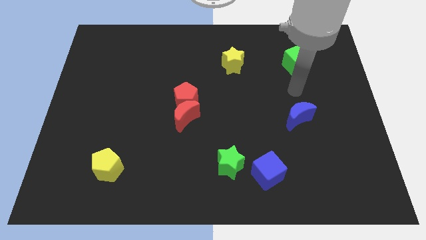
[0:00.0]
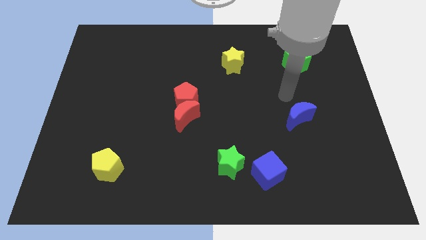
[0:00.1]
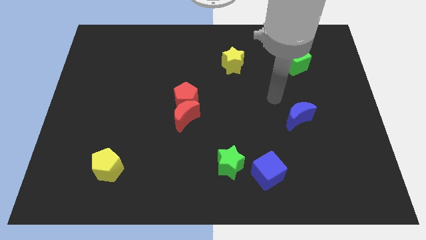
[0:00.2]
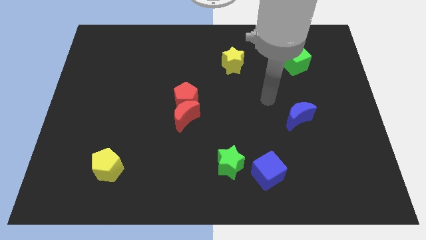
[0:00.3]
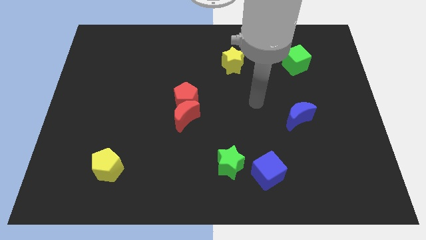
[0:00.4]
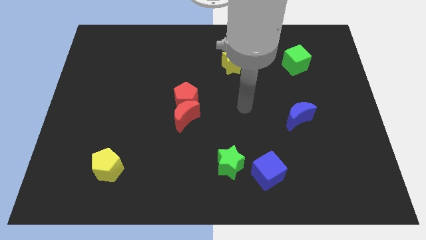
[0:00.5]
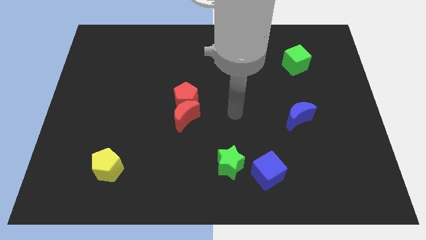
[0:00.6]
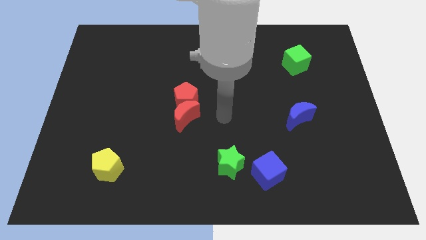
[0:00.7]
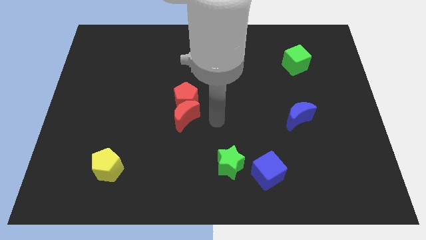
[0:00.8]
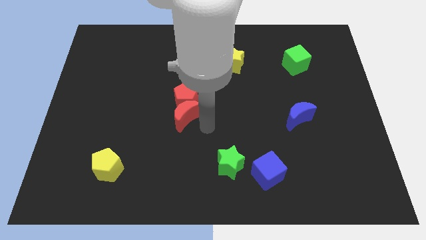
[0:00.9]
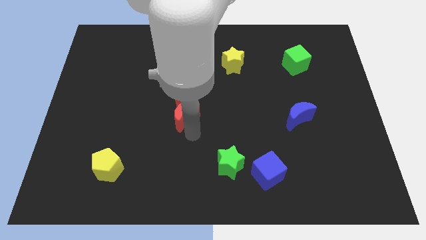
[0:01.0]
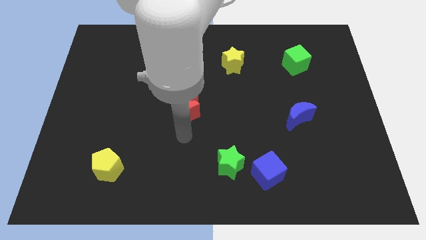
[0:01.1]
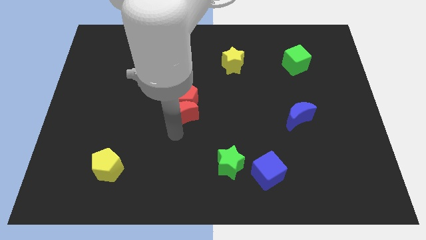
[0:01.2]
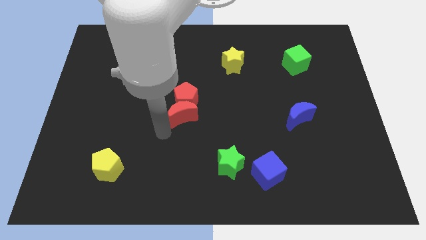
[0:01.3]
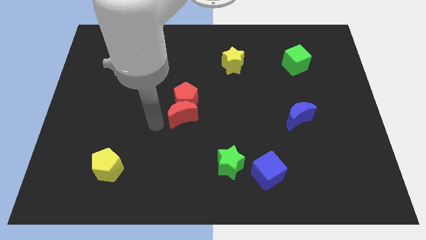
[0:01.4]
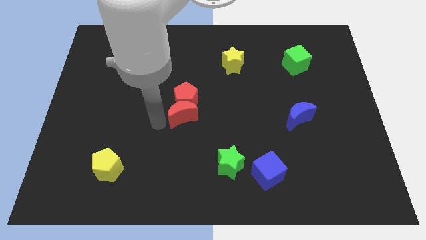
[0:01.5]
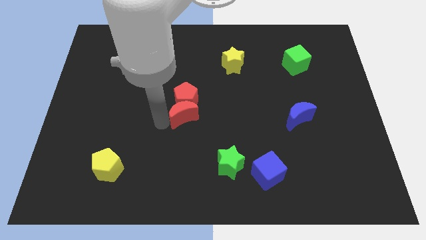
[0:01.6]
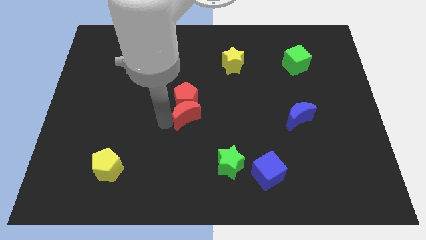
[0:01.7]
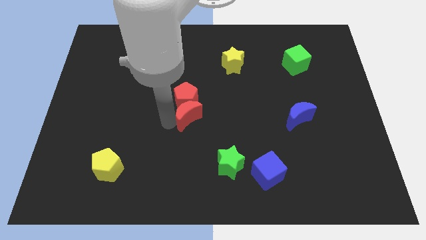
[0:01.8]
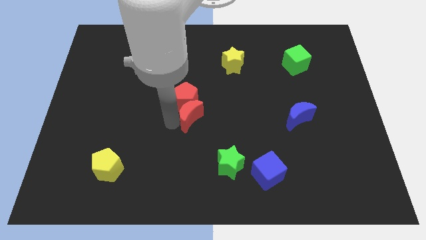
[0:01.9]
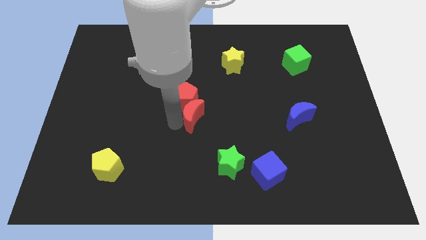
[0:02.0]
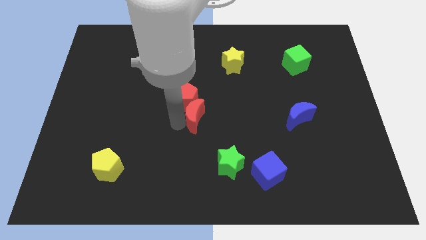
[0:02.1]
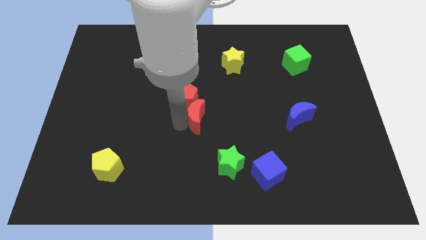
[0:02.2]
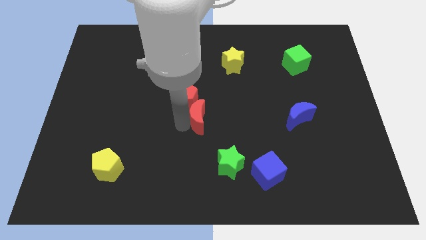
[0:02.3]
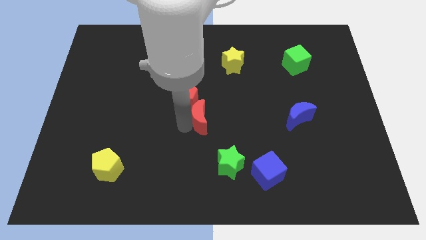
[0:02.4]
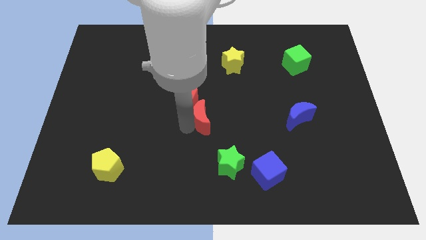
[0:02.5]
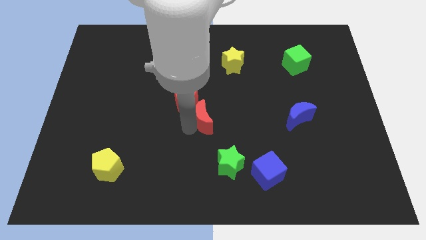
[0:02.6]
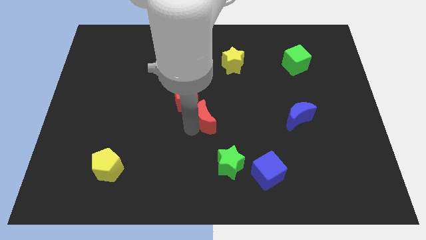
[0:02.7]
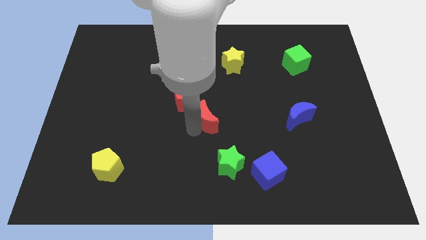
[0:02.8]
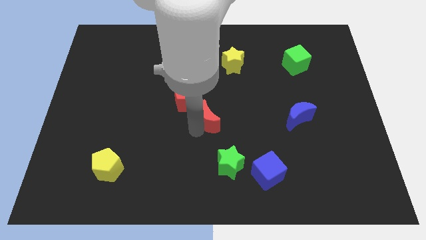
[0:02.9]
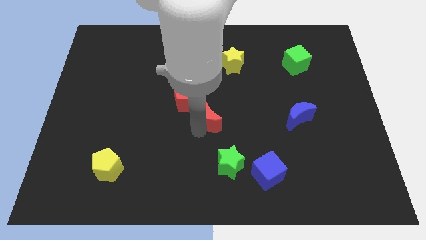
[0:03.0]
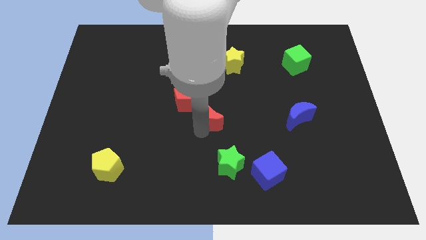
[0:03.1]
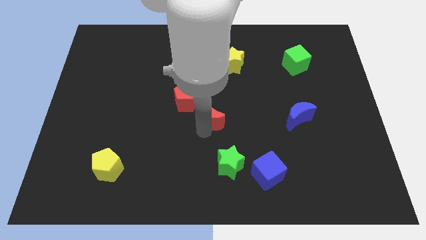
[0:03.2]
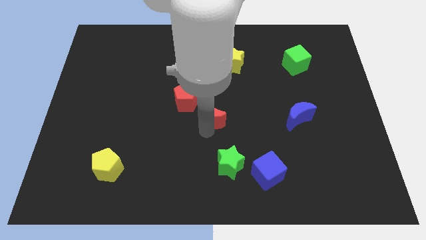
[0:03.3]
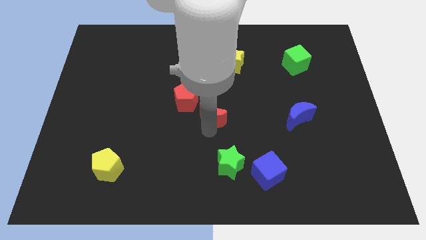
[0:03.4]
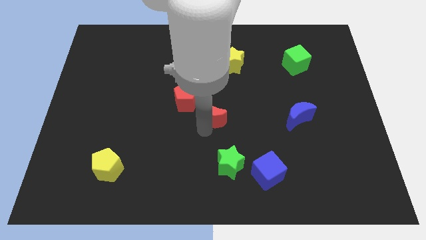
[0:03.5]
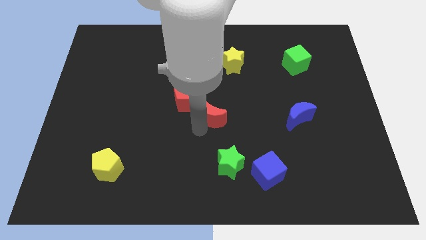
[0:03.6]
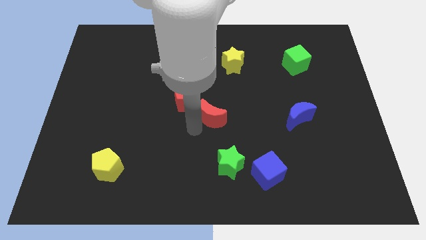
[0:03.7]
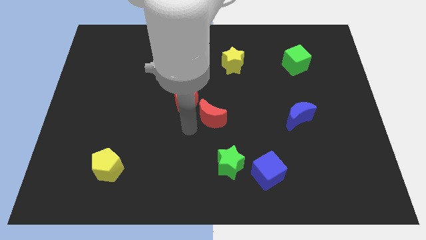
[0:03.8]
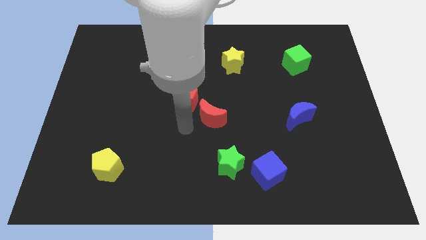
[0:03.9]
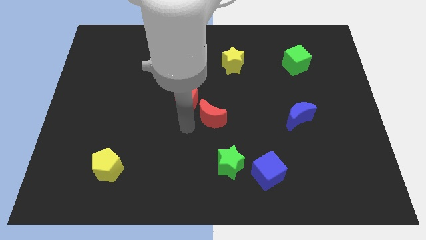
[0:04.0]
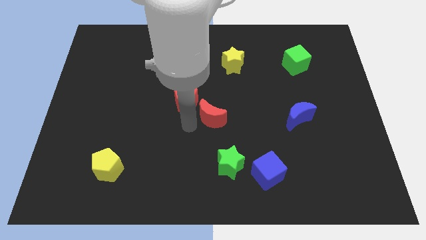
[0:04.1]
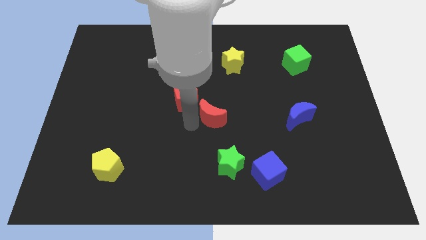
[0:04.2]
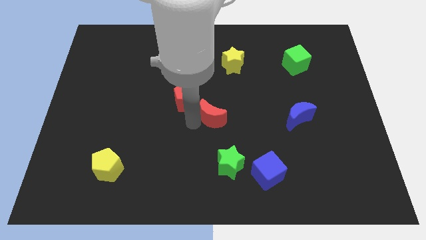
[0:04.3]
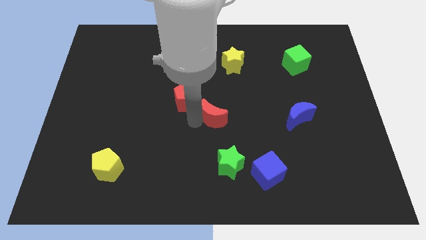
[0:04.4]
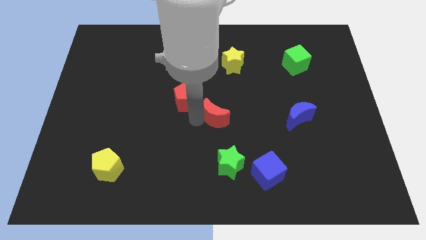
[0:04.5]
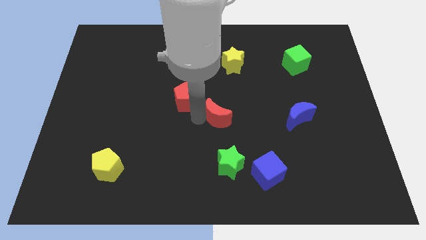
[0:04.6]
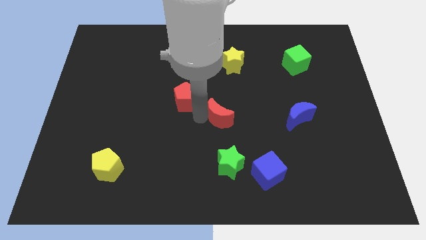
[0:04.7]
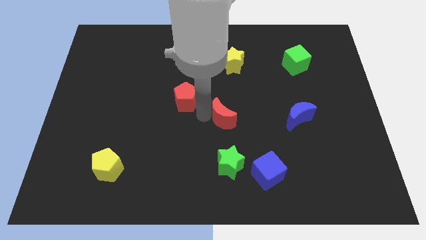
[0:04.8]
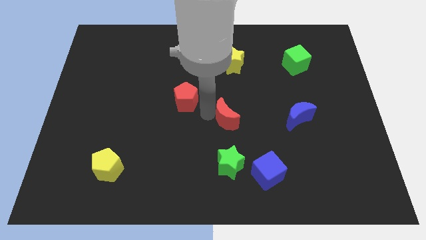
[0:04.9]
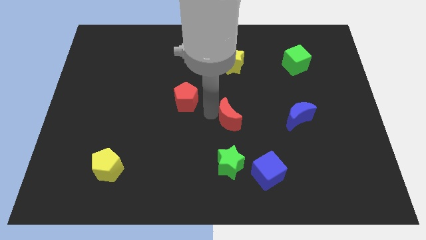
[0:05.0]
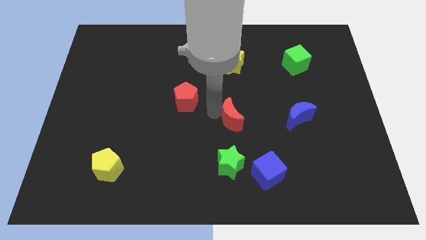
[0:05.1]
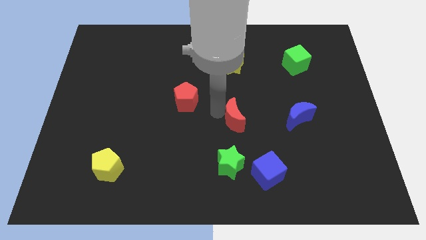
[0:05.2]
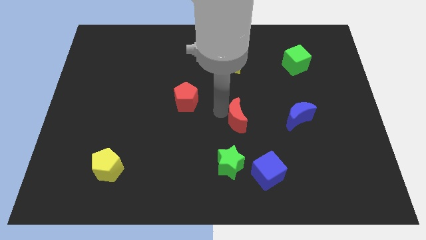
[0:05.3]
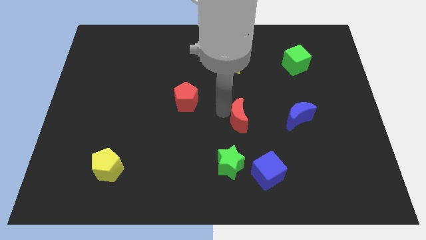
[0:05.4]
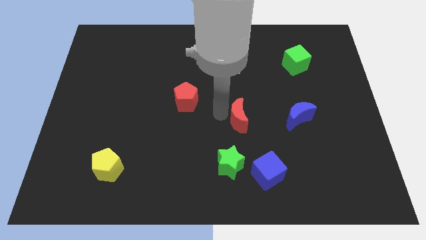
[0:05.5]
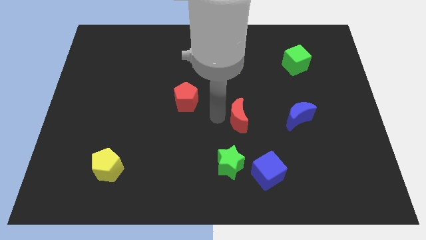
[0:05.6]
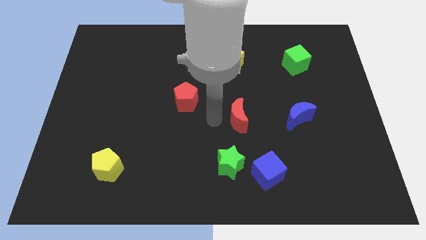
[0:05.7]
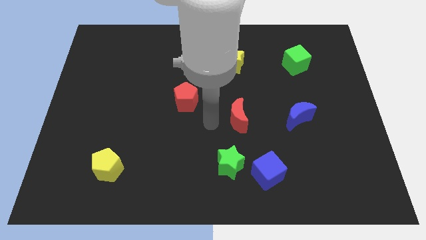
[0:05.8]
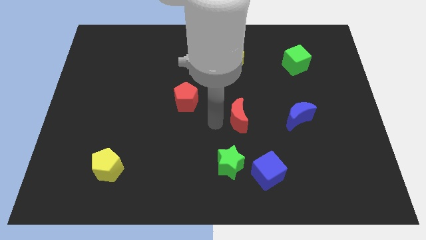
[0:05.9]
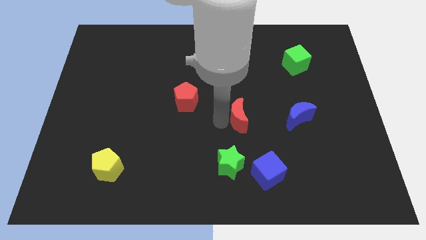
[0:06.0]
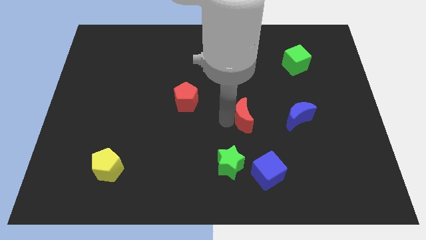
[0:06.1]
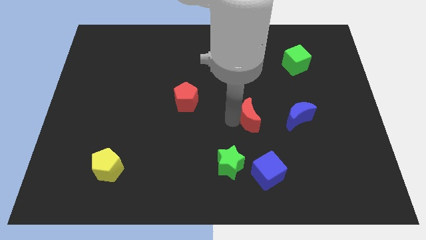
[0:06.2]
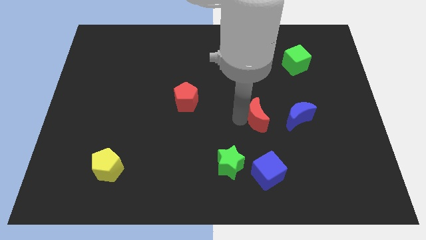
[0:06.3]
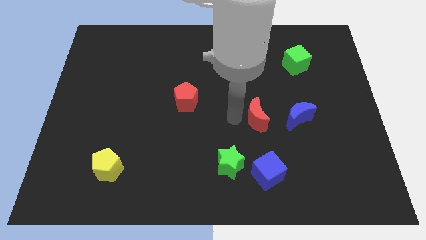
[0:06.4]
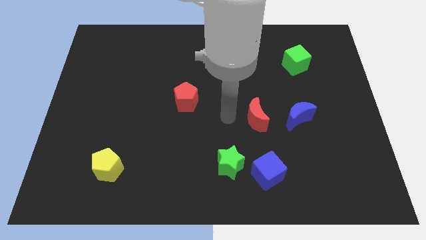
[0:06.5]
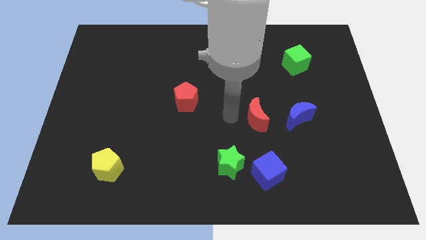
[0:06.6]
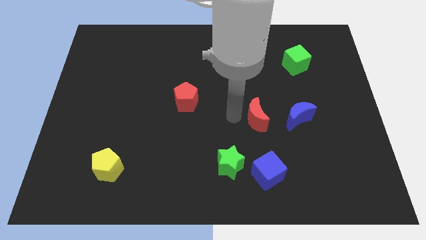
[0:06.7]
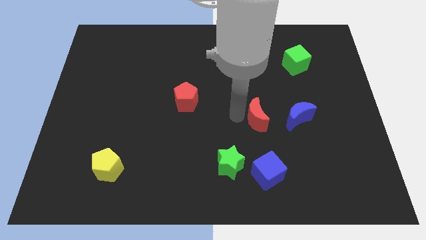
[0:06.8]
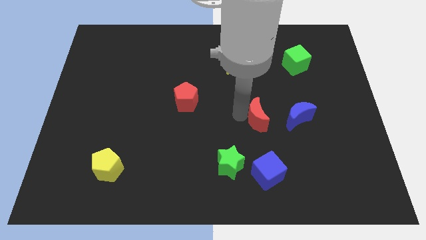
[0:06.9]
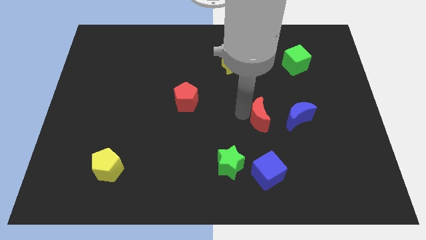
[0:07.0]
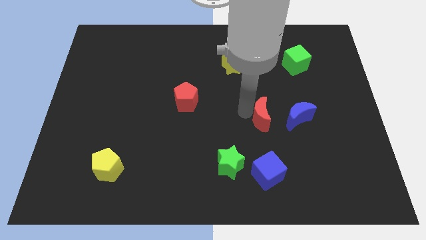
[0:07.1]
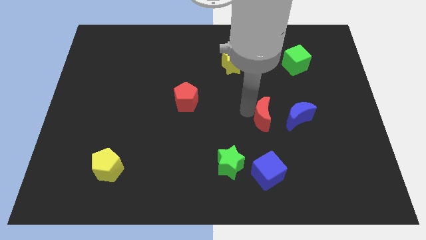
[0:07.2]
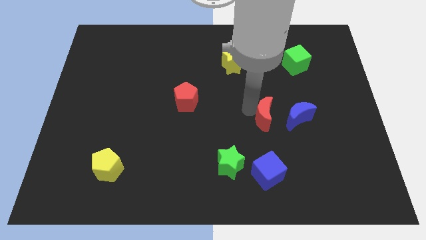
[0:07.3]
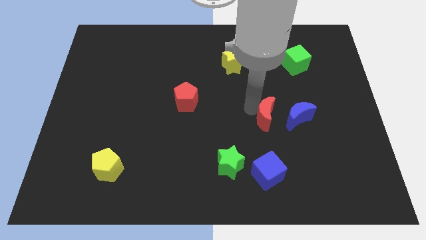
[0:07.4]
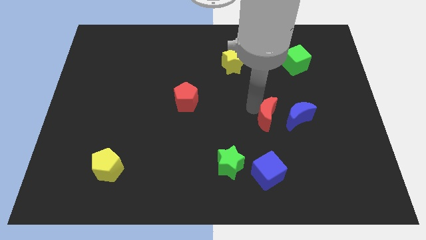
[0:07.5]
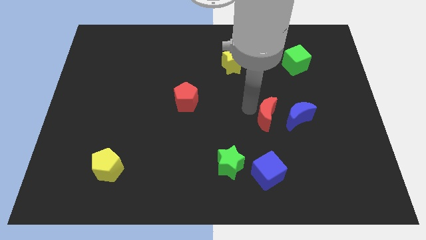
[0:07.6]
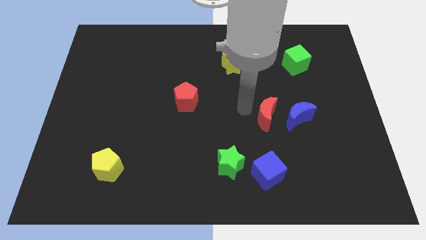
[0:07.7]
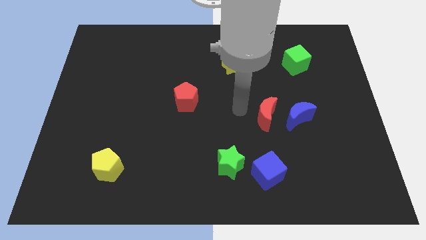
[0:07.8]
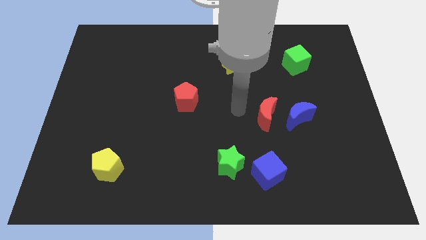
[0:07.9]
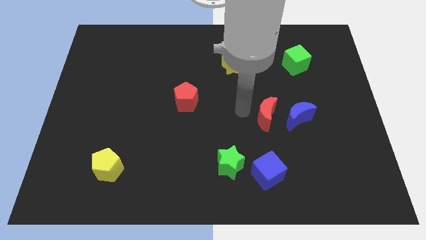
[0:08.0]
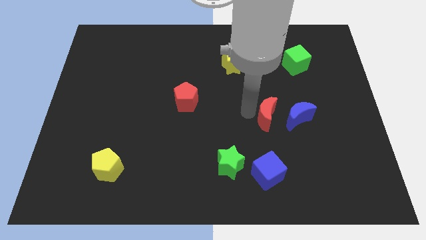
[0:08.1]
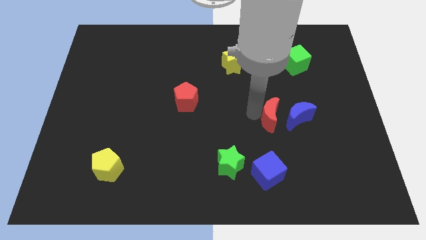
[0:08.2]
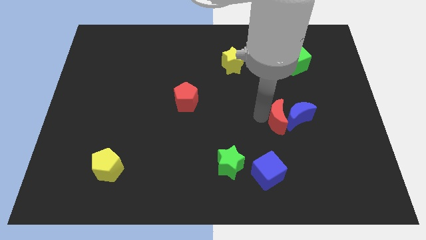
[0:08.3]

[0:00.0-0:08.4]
push the red moon close to the blue moon
